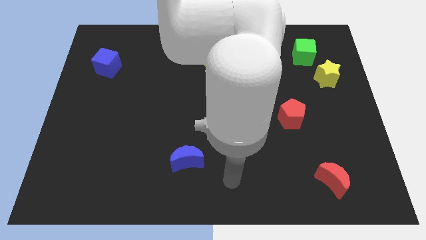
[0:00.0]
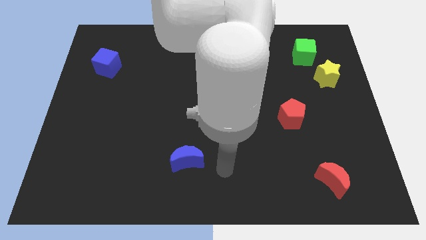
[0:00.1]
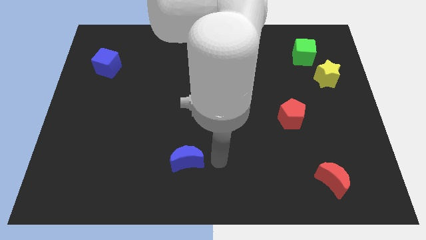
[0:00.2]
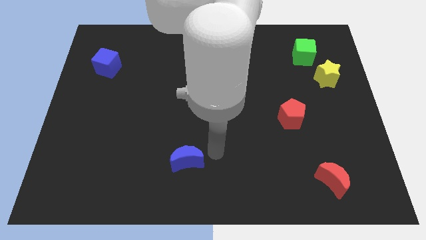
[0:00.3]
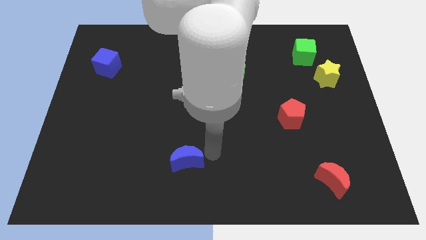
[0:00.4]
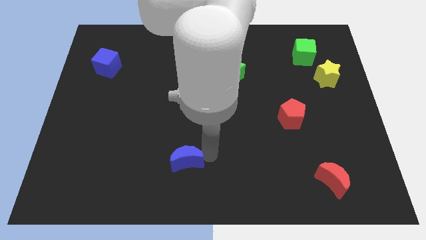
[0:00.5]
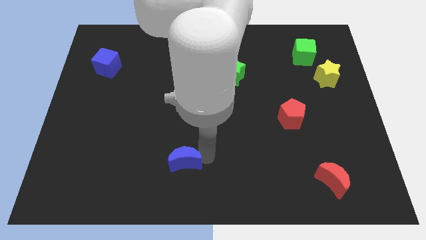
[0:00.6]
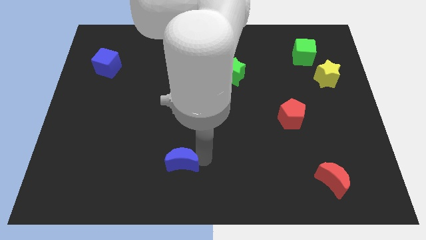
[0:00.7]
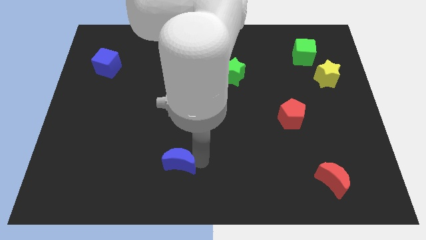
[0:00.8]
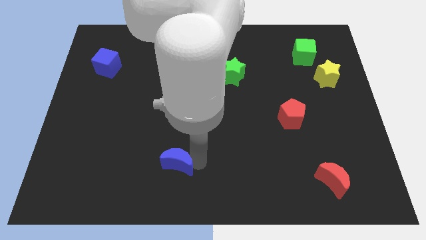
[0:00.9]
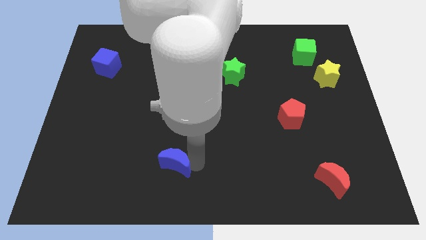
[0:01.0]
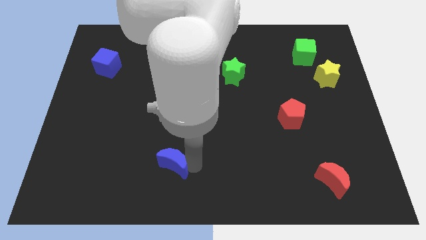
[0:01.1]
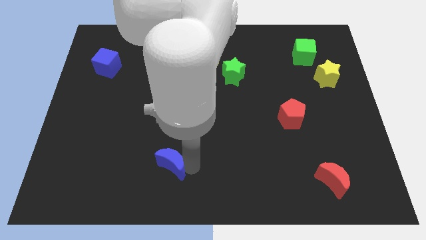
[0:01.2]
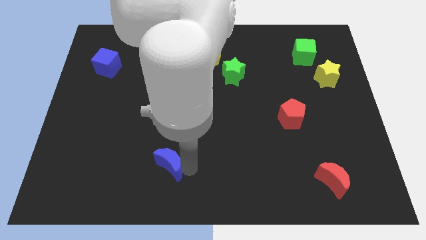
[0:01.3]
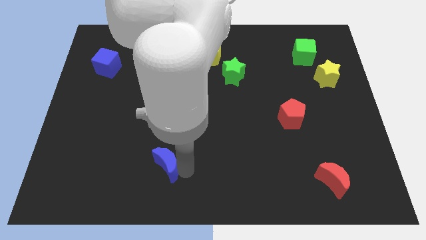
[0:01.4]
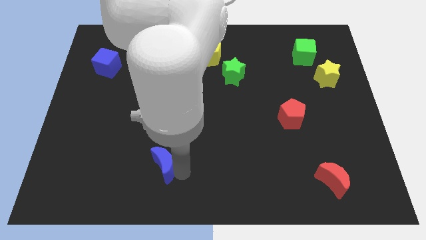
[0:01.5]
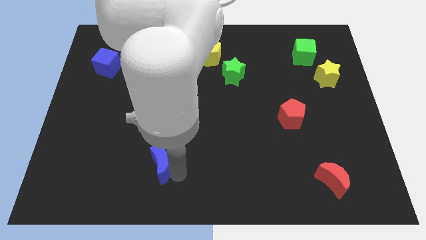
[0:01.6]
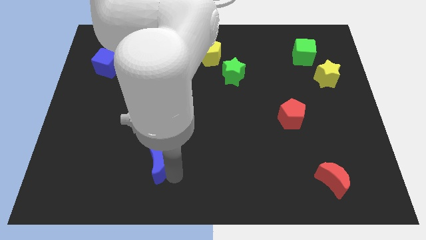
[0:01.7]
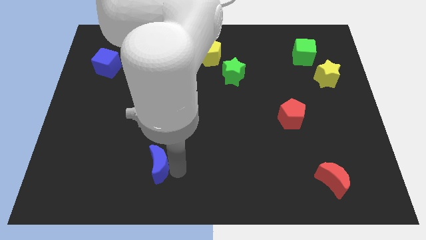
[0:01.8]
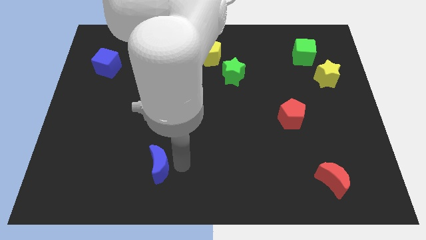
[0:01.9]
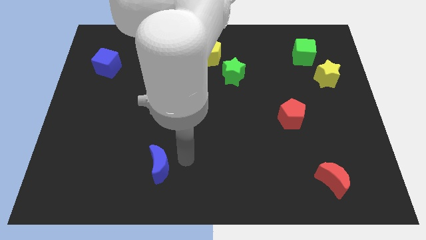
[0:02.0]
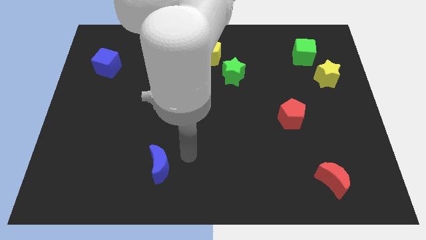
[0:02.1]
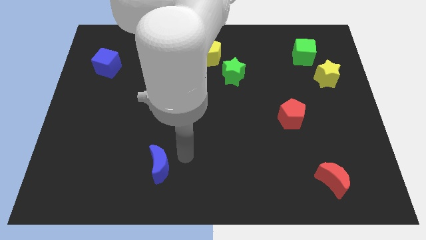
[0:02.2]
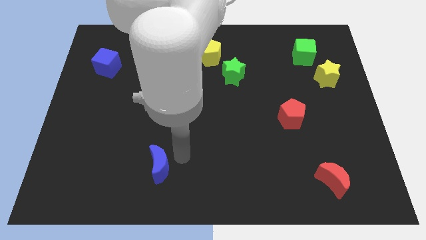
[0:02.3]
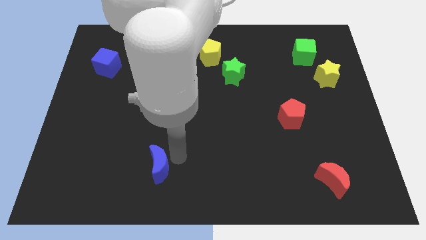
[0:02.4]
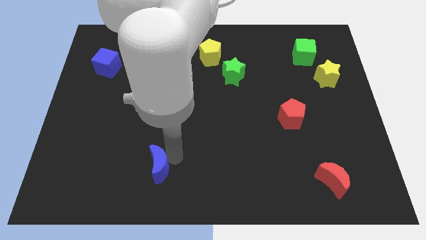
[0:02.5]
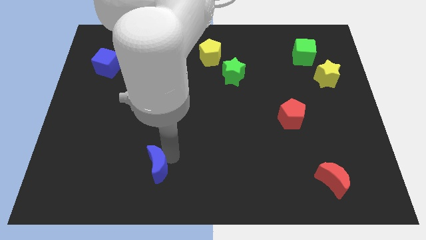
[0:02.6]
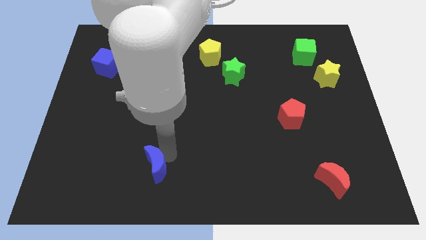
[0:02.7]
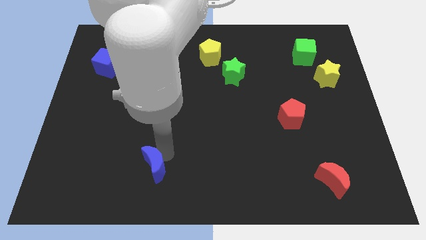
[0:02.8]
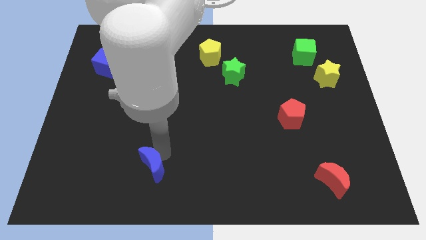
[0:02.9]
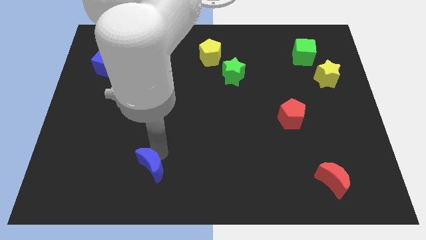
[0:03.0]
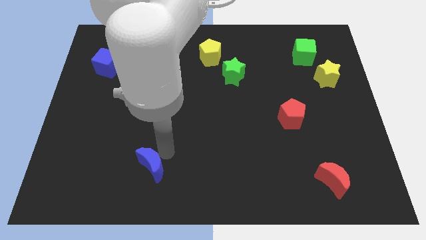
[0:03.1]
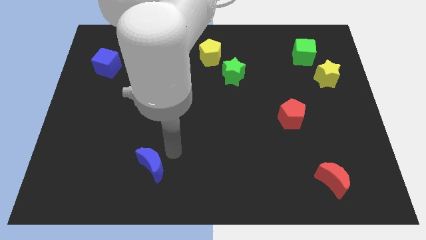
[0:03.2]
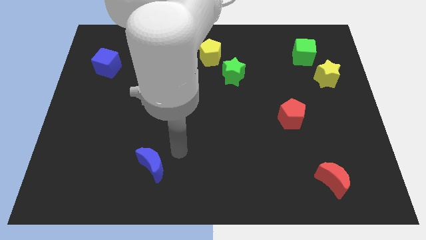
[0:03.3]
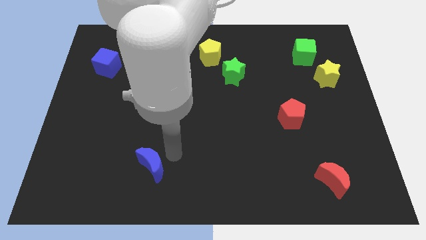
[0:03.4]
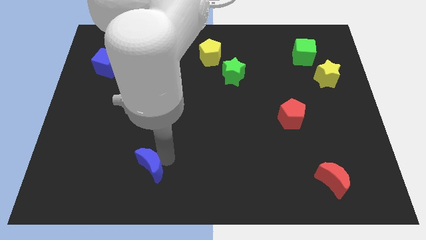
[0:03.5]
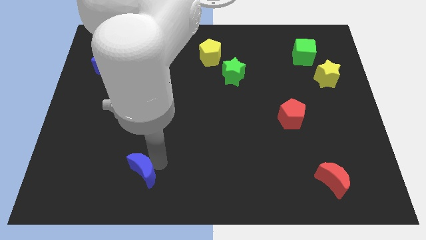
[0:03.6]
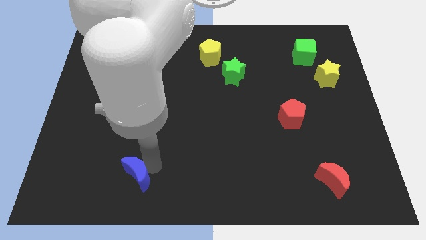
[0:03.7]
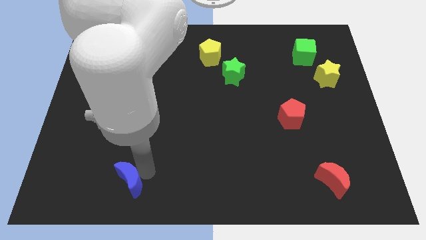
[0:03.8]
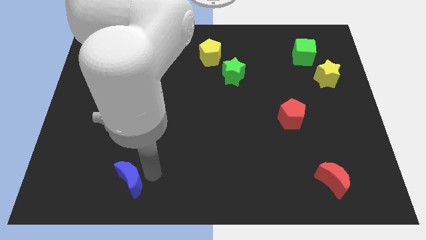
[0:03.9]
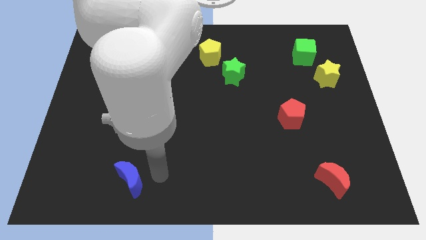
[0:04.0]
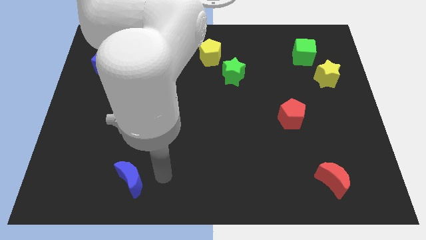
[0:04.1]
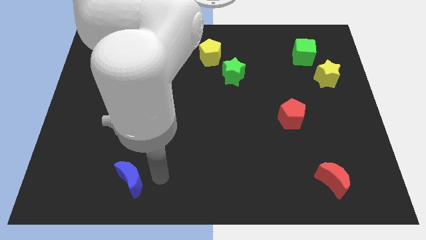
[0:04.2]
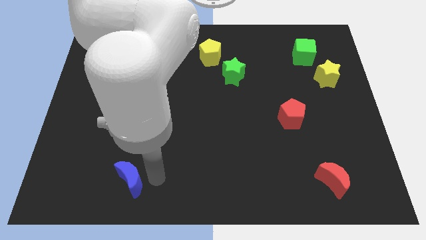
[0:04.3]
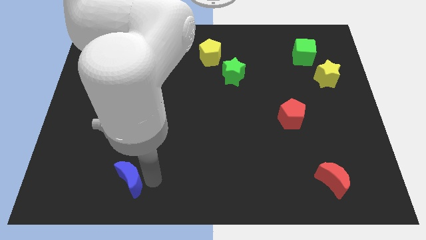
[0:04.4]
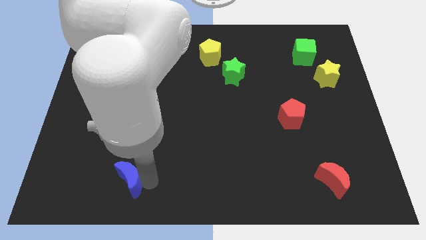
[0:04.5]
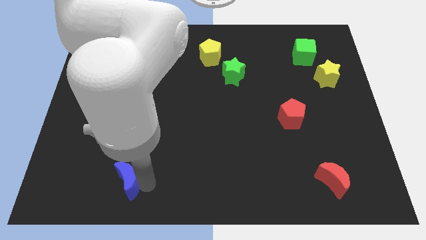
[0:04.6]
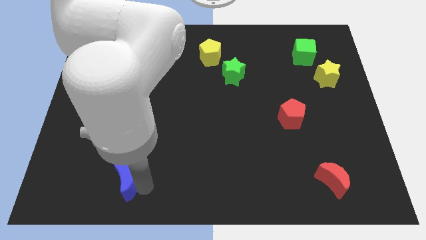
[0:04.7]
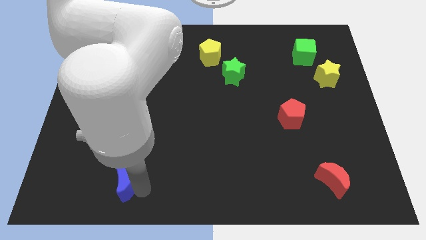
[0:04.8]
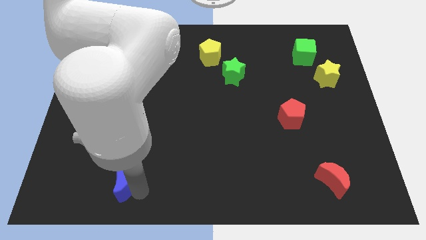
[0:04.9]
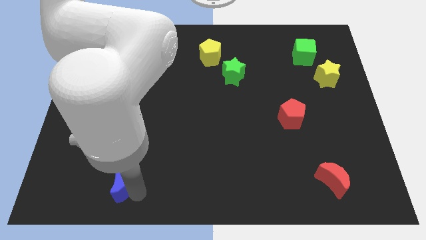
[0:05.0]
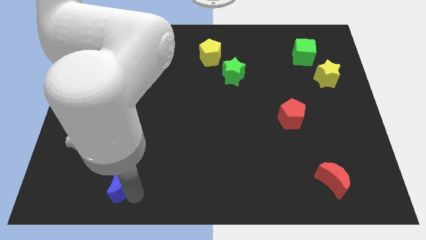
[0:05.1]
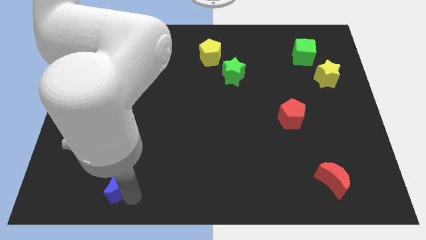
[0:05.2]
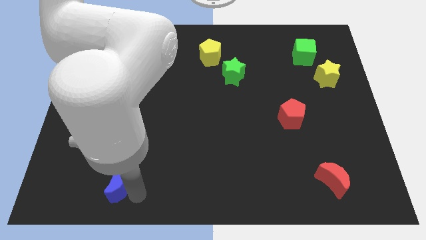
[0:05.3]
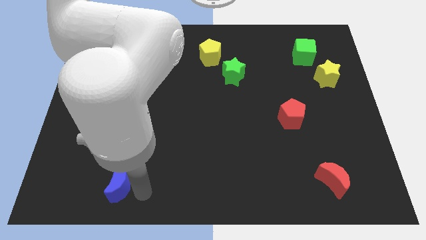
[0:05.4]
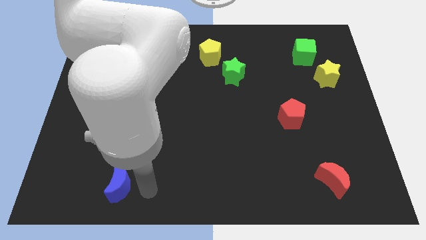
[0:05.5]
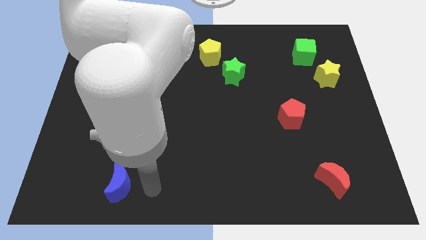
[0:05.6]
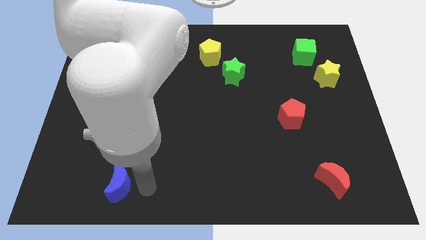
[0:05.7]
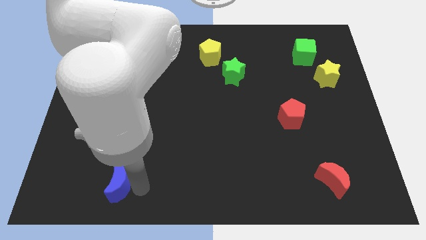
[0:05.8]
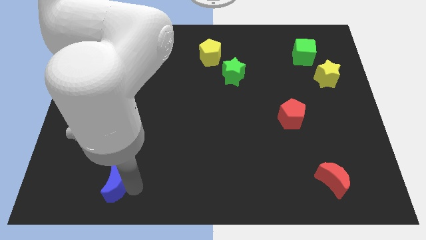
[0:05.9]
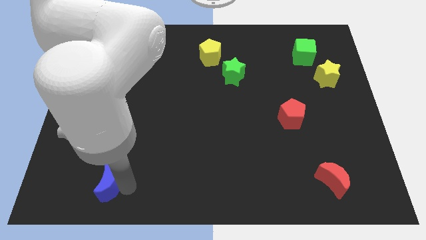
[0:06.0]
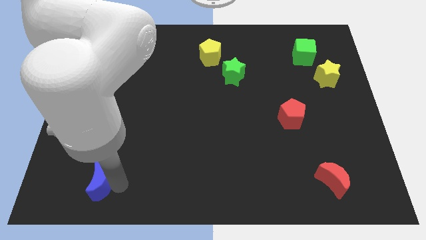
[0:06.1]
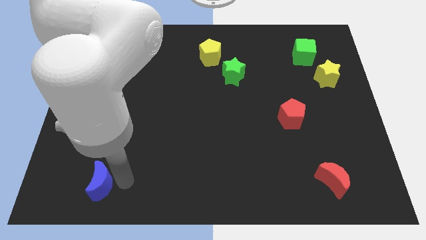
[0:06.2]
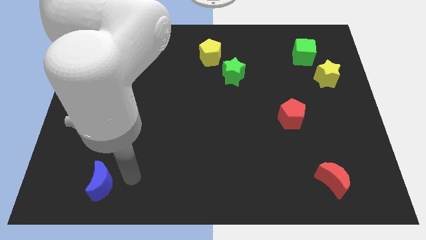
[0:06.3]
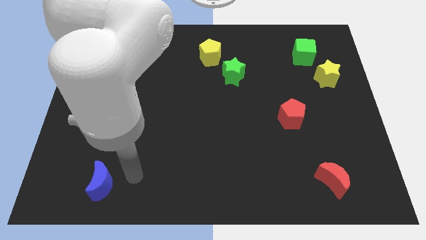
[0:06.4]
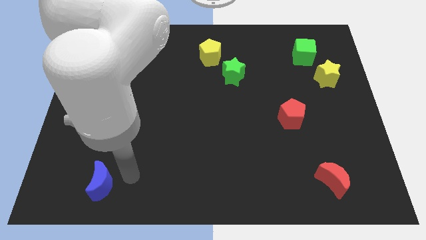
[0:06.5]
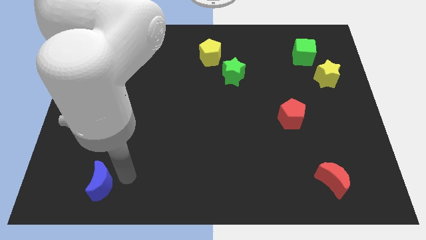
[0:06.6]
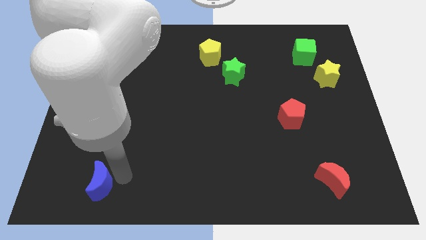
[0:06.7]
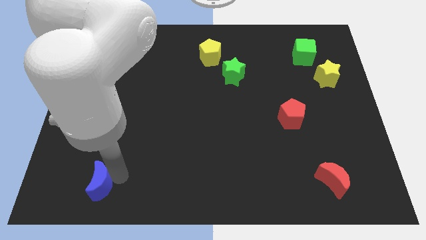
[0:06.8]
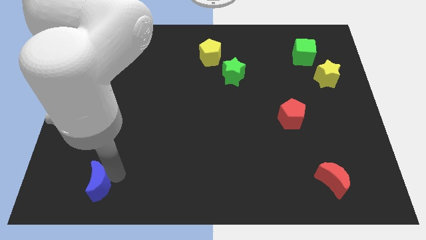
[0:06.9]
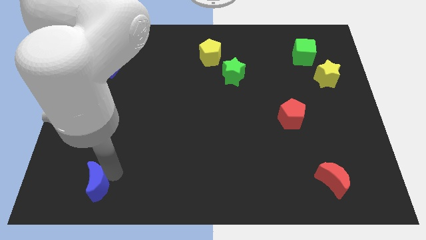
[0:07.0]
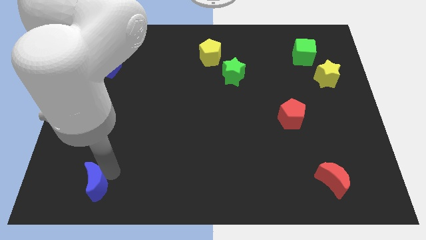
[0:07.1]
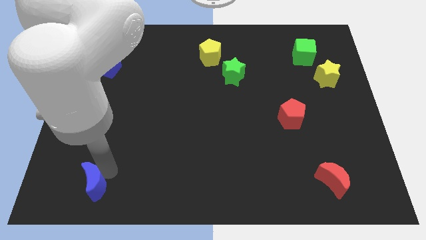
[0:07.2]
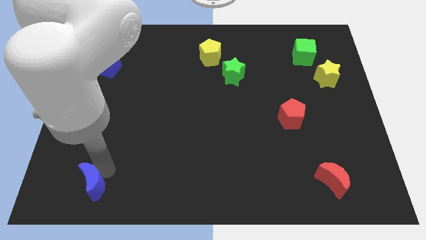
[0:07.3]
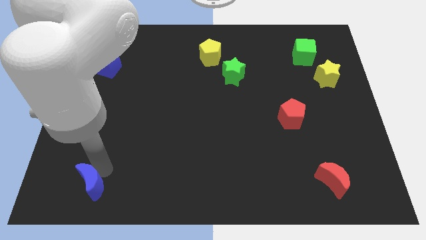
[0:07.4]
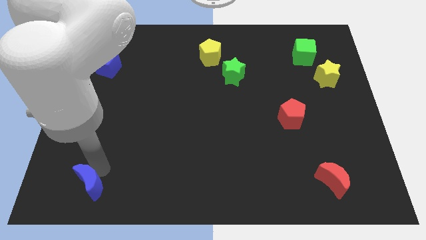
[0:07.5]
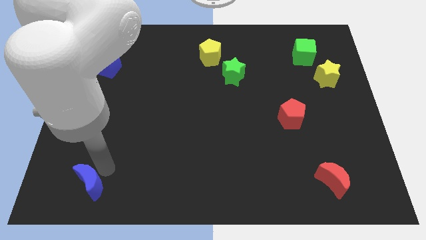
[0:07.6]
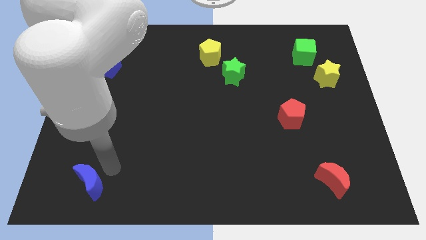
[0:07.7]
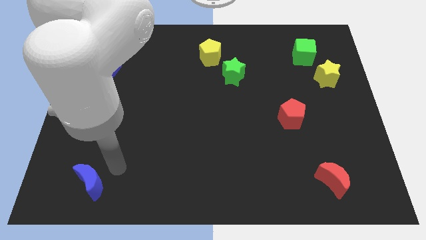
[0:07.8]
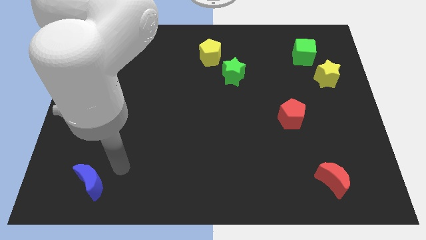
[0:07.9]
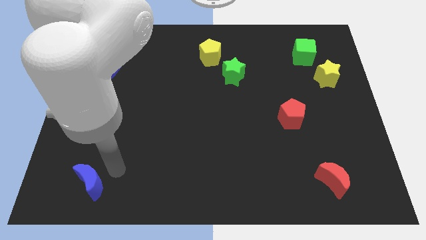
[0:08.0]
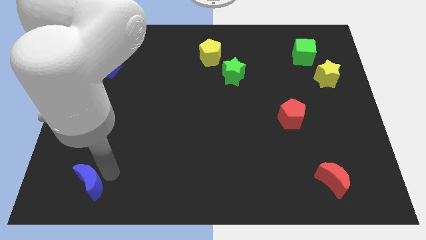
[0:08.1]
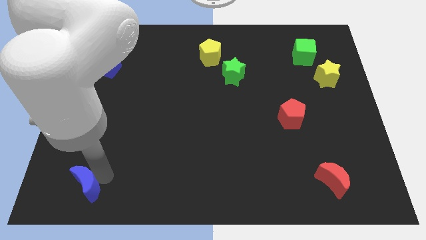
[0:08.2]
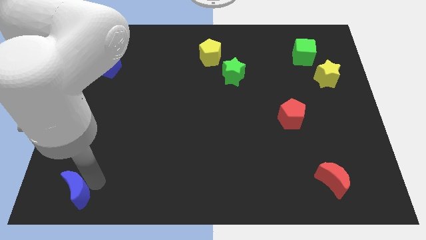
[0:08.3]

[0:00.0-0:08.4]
push the blue moon to the bottom left of the board
